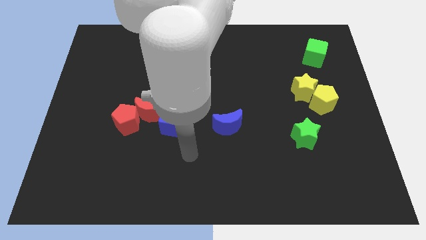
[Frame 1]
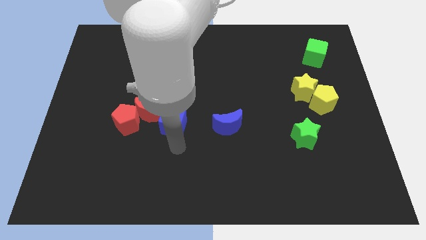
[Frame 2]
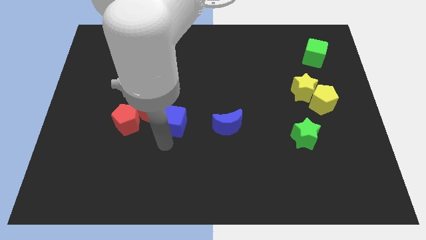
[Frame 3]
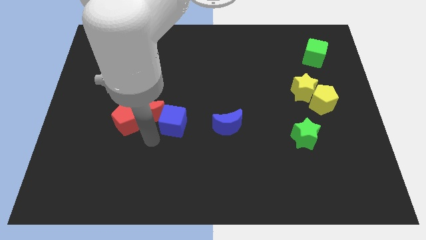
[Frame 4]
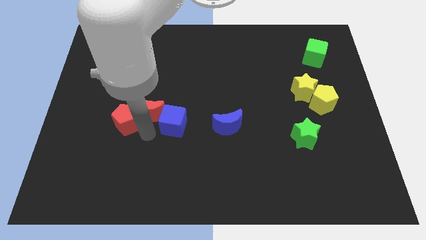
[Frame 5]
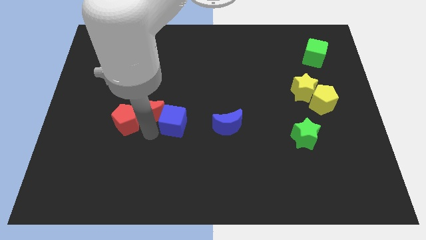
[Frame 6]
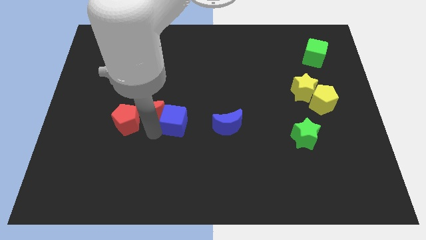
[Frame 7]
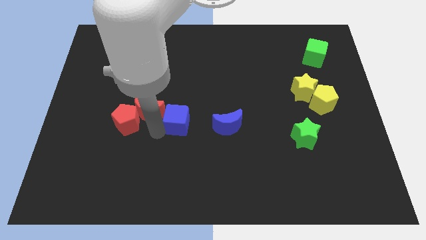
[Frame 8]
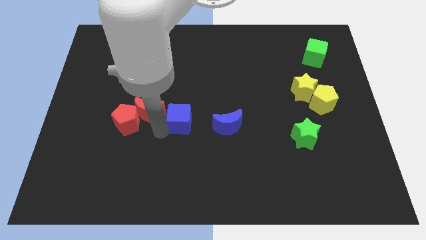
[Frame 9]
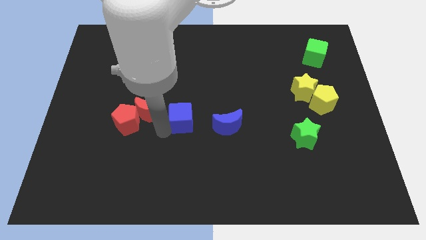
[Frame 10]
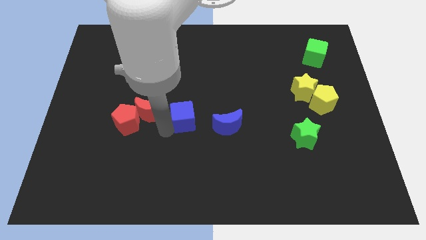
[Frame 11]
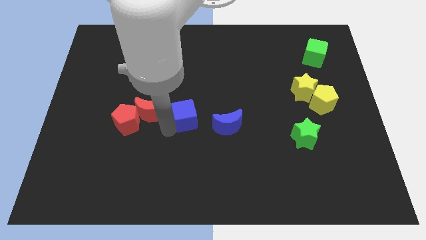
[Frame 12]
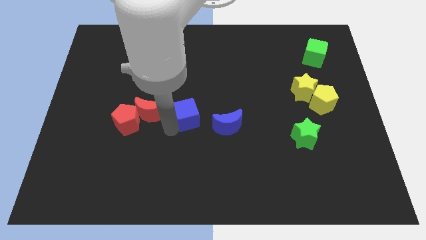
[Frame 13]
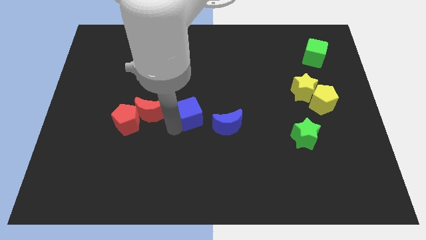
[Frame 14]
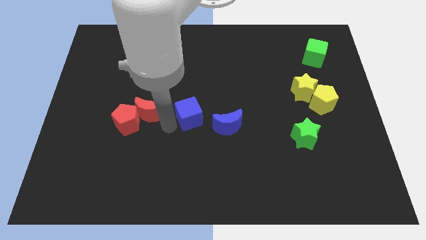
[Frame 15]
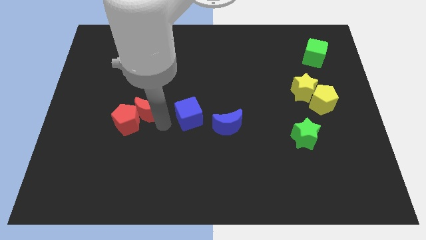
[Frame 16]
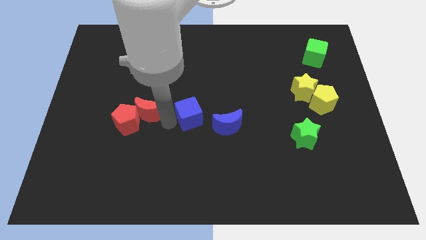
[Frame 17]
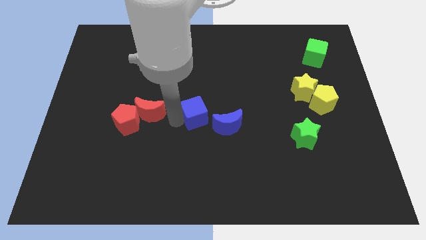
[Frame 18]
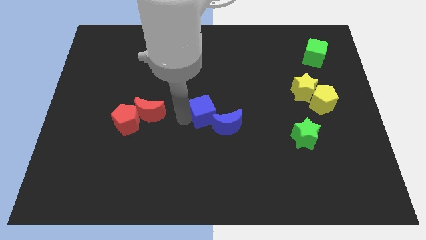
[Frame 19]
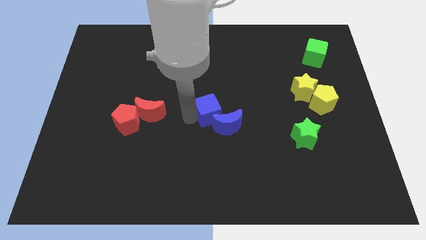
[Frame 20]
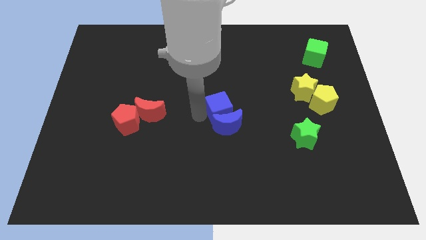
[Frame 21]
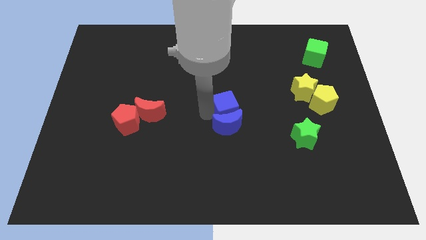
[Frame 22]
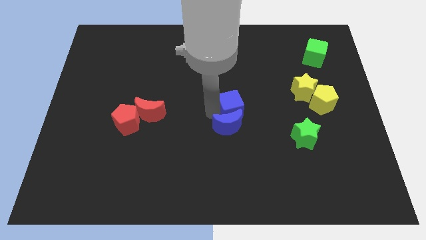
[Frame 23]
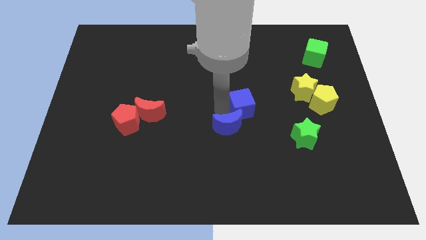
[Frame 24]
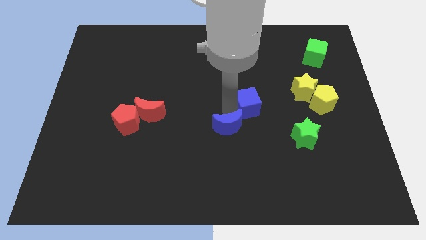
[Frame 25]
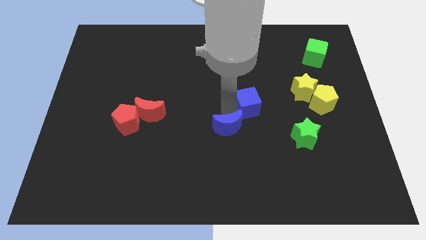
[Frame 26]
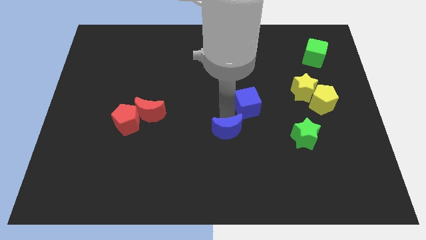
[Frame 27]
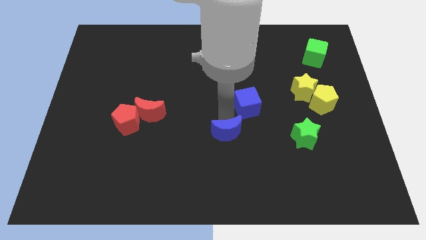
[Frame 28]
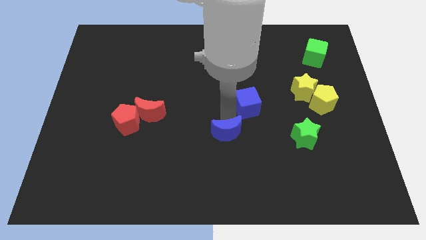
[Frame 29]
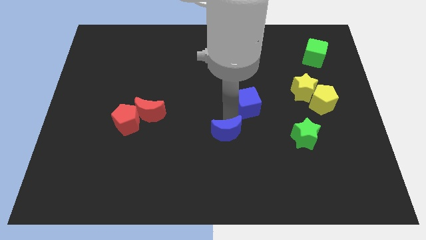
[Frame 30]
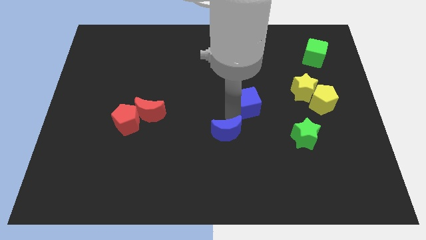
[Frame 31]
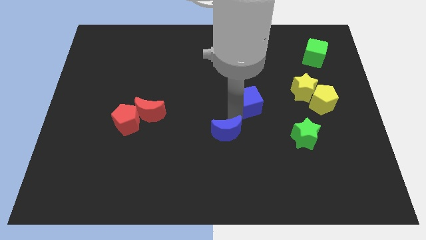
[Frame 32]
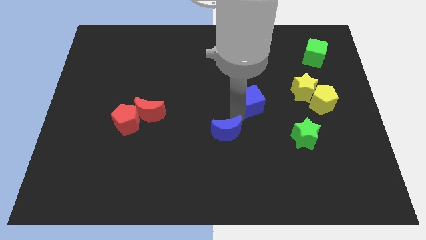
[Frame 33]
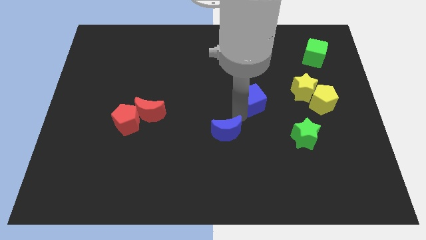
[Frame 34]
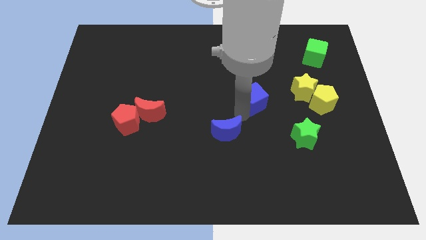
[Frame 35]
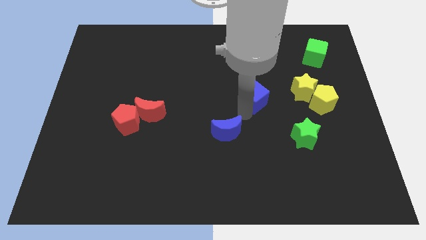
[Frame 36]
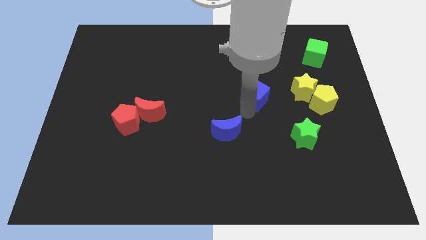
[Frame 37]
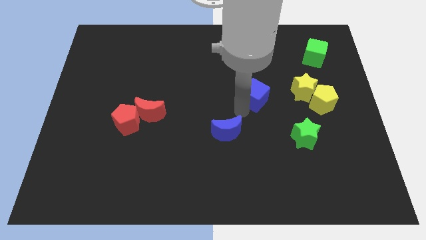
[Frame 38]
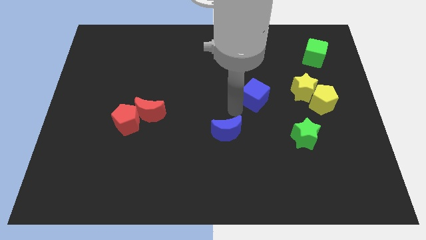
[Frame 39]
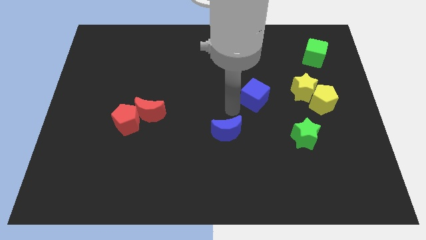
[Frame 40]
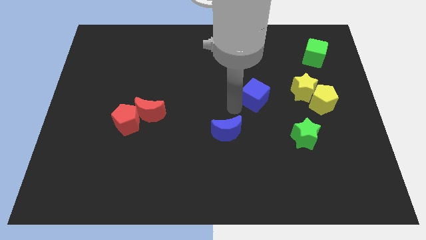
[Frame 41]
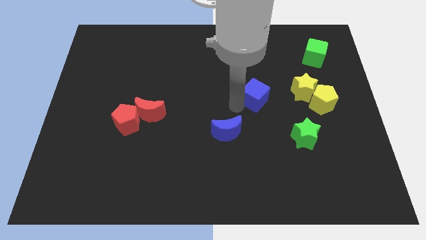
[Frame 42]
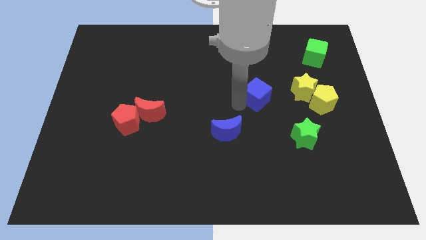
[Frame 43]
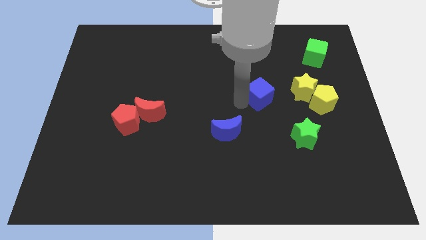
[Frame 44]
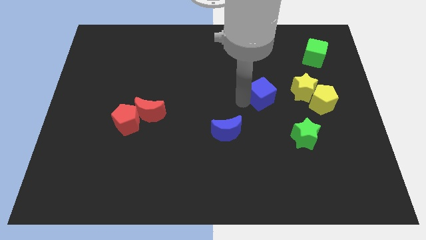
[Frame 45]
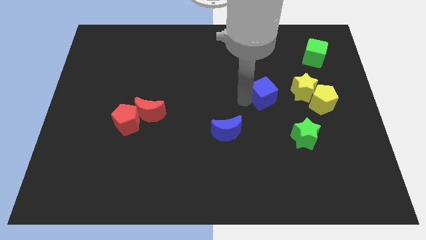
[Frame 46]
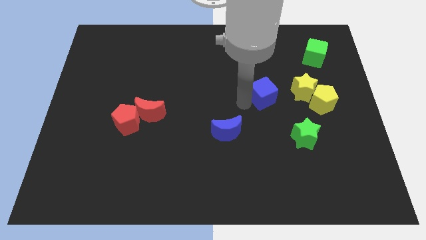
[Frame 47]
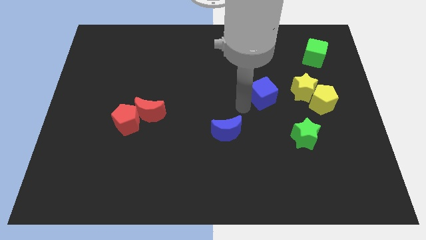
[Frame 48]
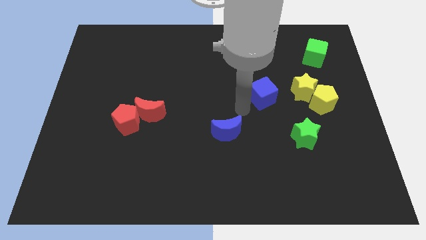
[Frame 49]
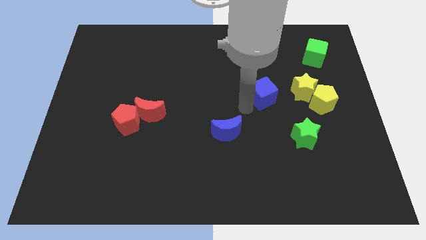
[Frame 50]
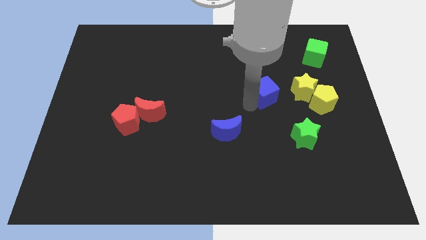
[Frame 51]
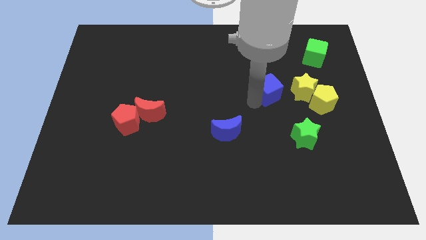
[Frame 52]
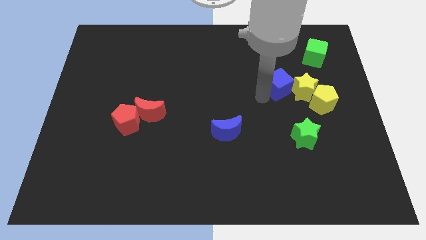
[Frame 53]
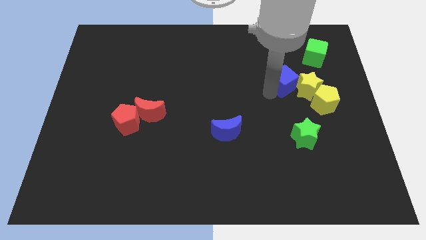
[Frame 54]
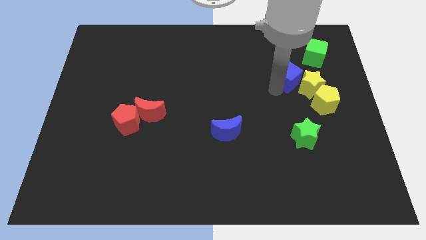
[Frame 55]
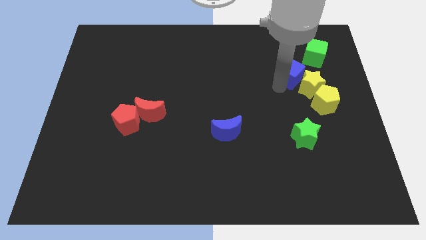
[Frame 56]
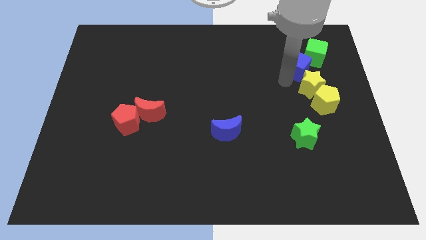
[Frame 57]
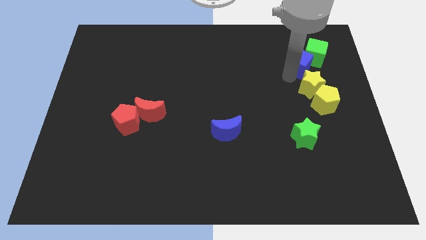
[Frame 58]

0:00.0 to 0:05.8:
slide the blue cube towards the green cube

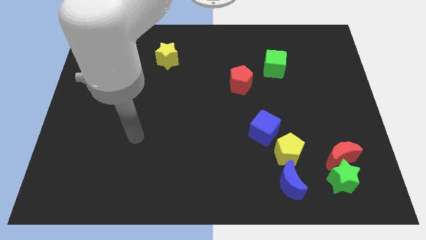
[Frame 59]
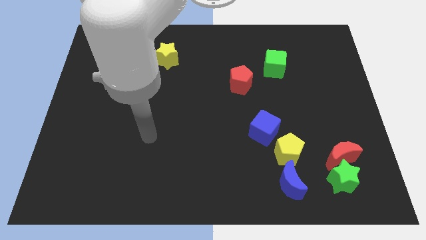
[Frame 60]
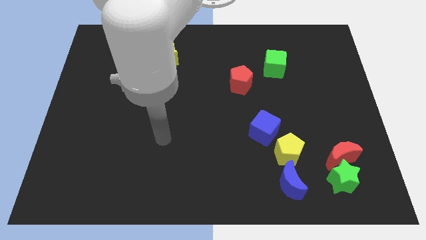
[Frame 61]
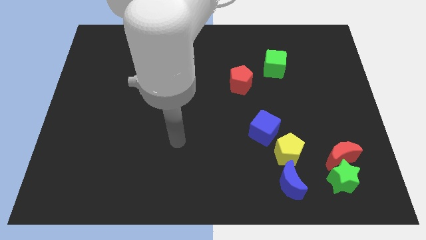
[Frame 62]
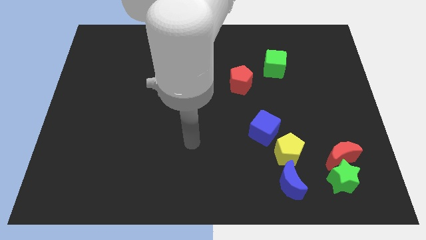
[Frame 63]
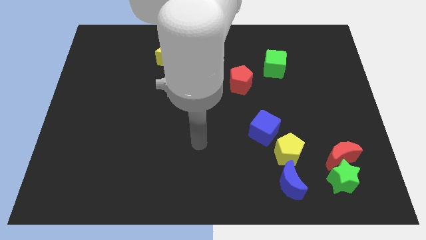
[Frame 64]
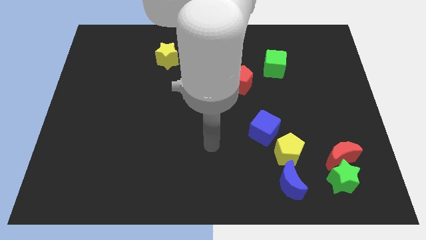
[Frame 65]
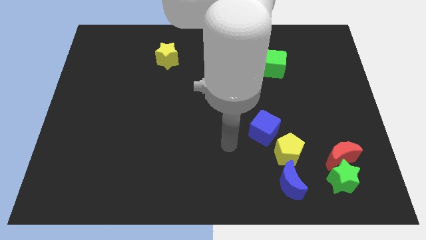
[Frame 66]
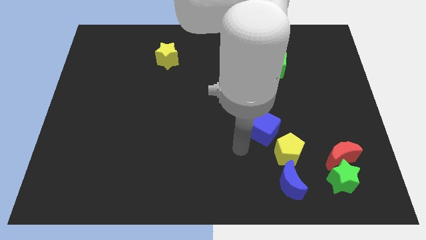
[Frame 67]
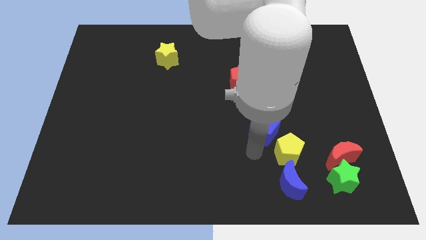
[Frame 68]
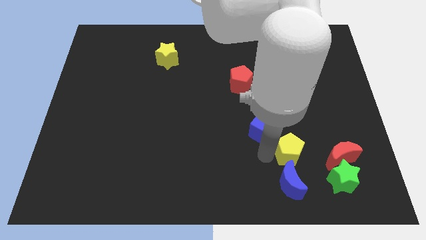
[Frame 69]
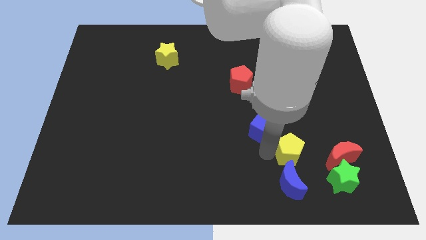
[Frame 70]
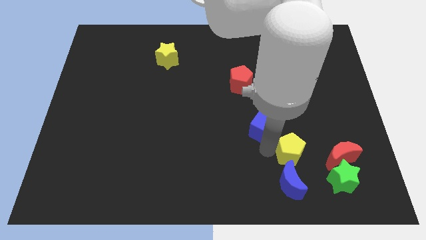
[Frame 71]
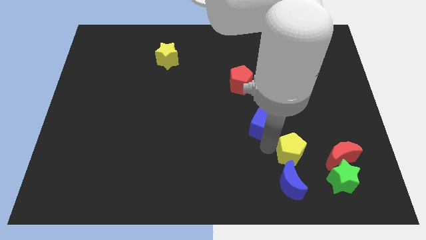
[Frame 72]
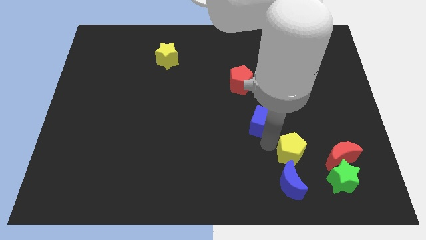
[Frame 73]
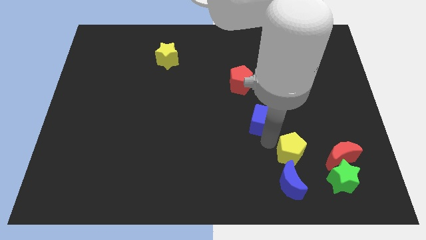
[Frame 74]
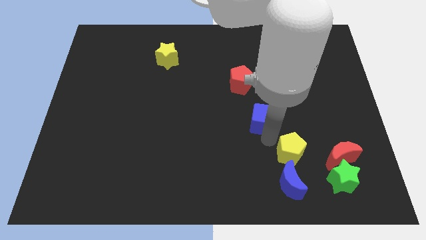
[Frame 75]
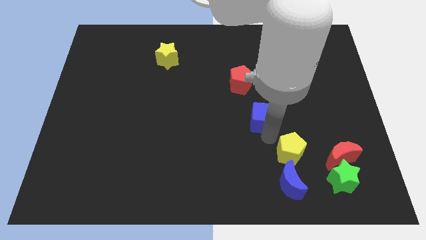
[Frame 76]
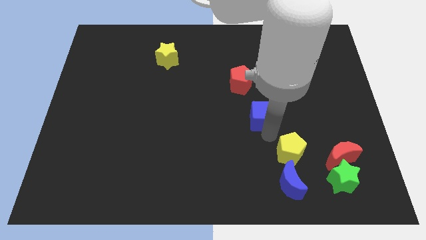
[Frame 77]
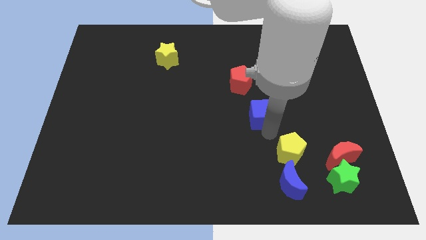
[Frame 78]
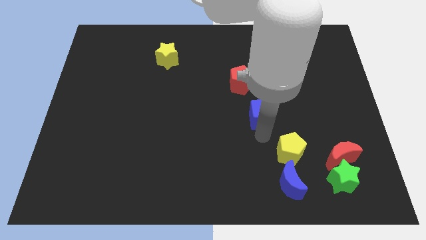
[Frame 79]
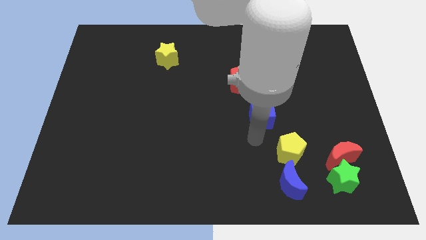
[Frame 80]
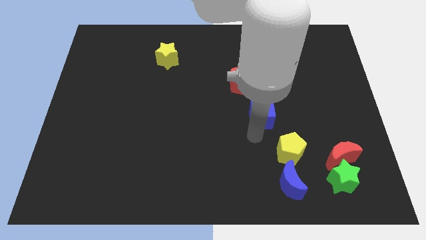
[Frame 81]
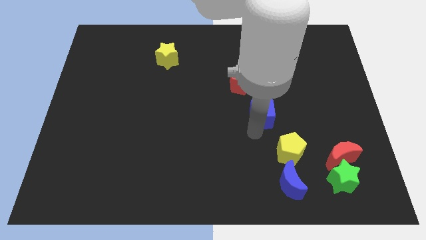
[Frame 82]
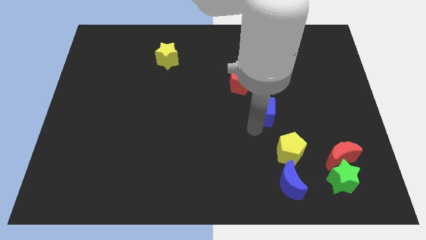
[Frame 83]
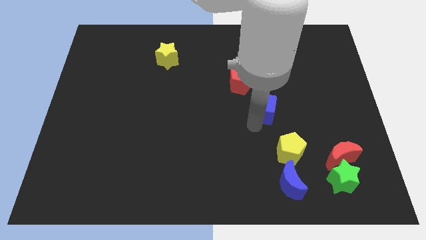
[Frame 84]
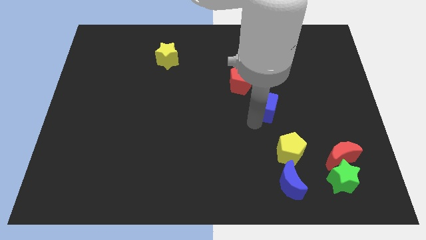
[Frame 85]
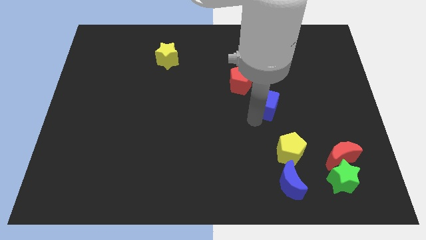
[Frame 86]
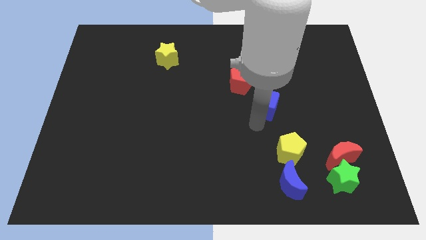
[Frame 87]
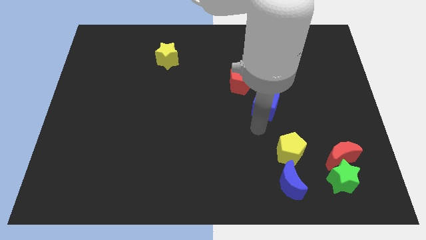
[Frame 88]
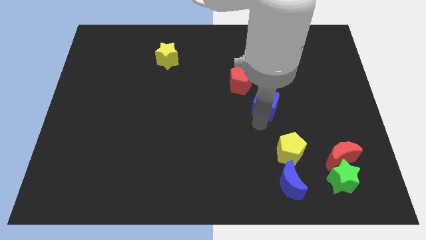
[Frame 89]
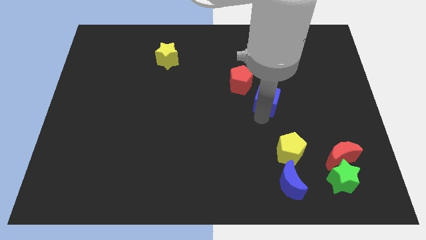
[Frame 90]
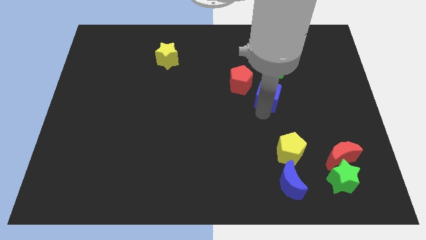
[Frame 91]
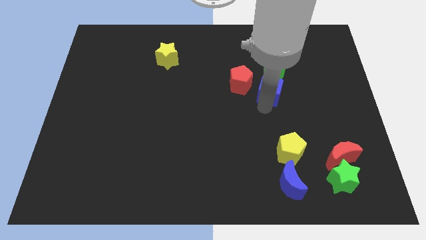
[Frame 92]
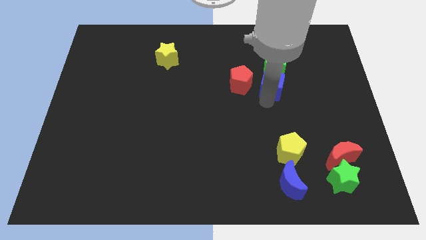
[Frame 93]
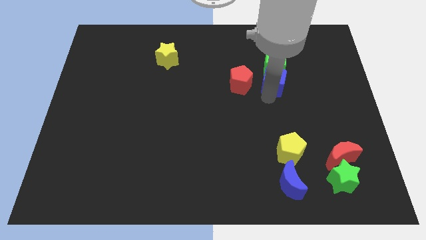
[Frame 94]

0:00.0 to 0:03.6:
move the blue cube close to the green cube
